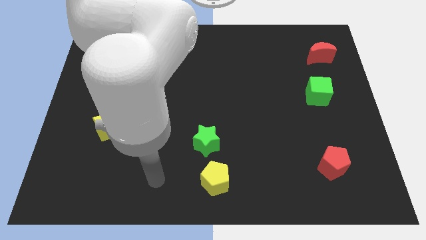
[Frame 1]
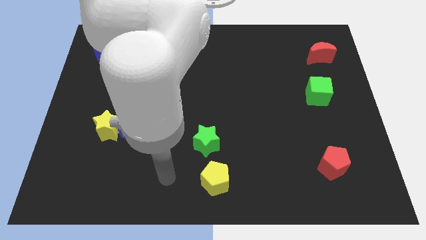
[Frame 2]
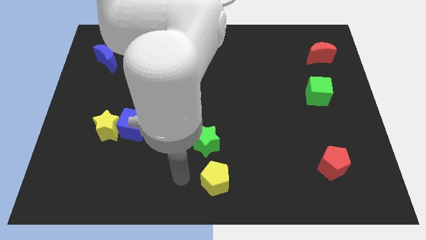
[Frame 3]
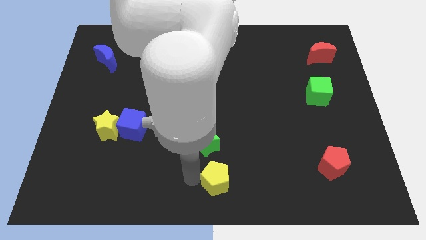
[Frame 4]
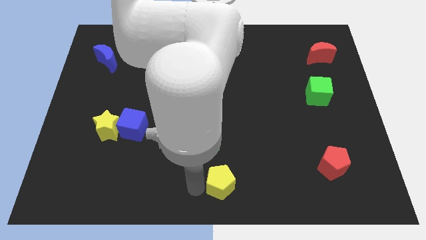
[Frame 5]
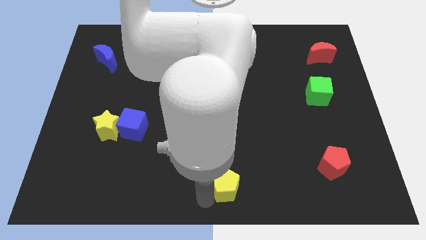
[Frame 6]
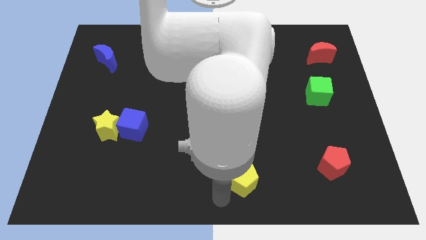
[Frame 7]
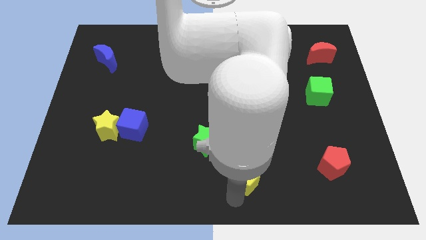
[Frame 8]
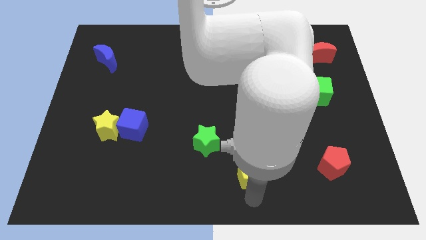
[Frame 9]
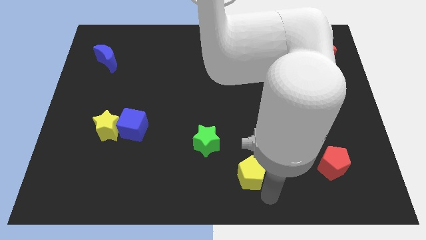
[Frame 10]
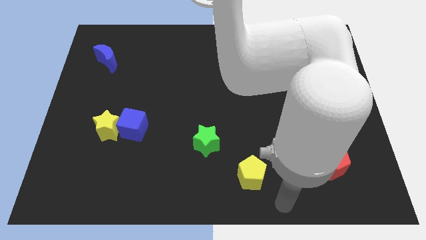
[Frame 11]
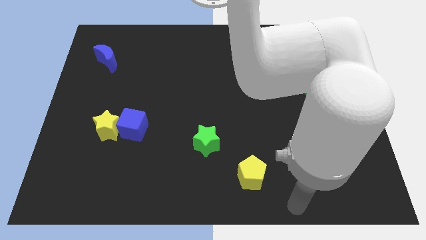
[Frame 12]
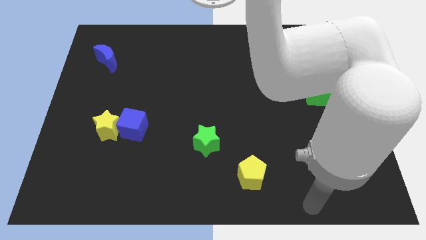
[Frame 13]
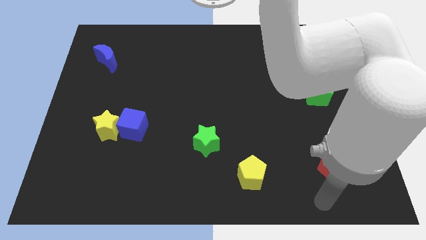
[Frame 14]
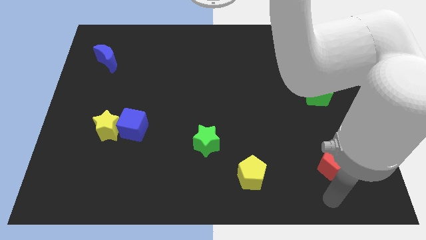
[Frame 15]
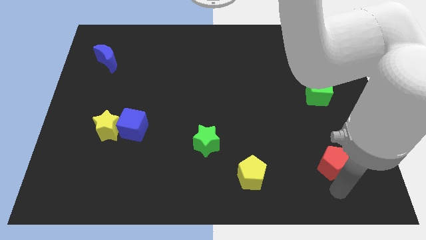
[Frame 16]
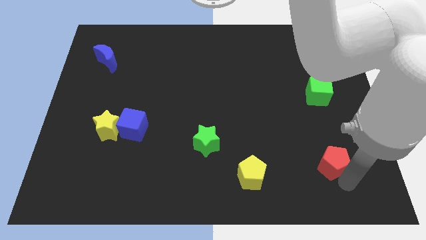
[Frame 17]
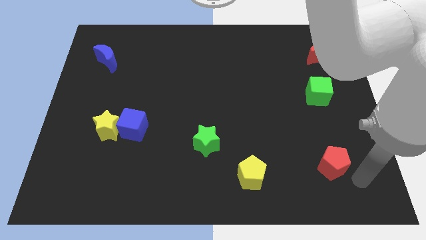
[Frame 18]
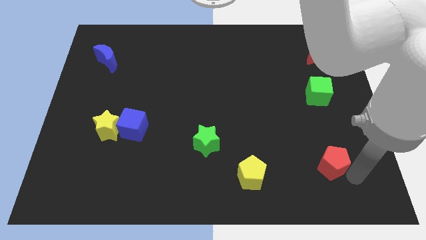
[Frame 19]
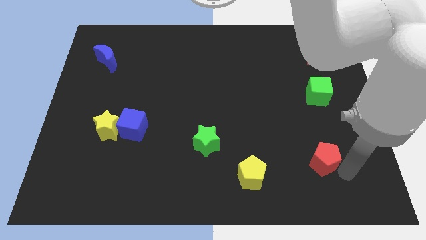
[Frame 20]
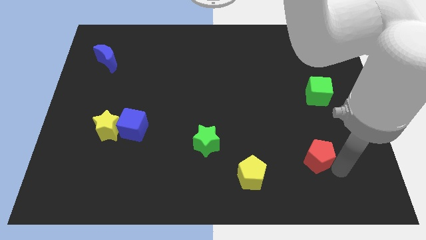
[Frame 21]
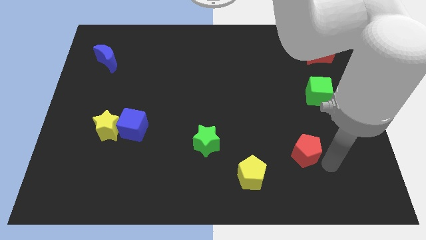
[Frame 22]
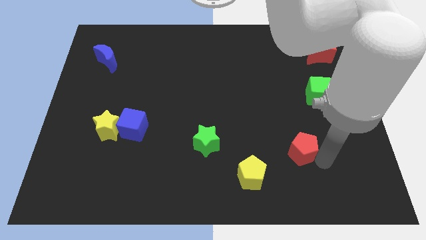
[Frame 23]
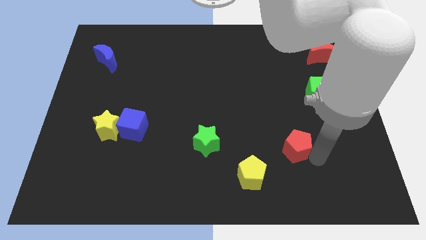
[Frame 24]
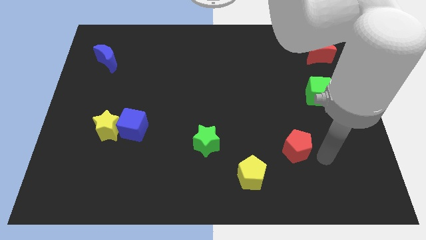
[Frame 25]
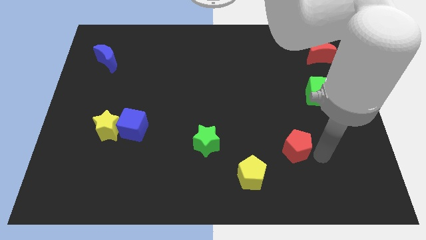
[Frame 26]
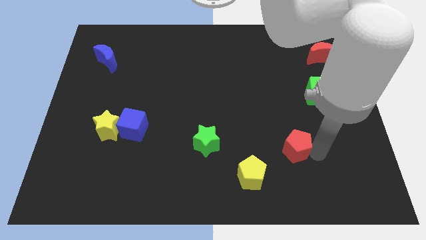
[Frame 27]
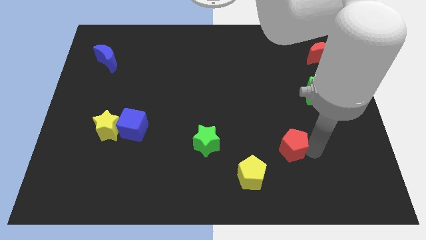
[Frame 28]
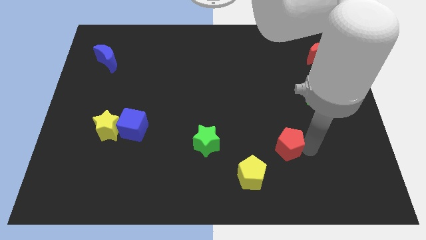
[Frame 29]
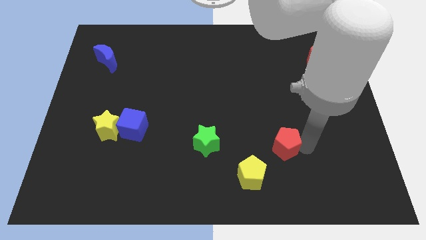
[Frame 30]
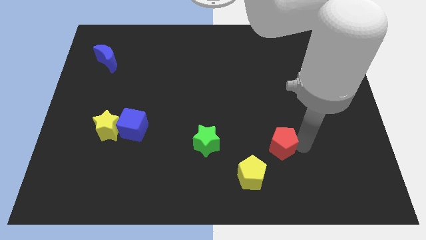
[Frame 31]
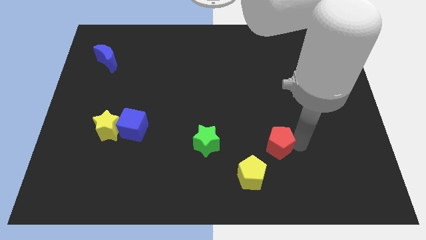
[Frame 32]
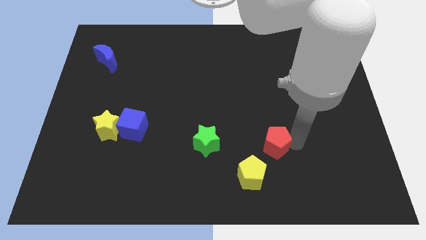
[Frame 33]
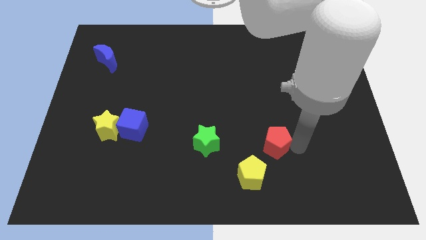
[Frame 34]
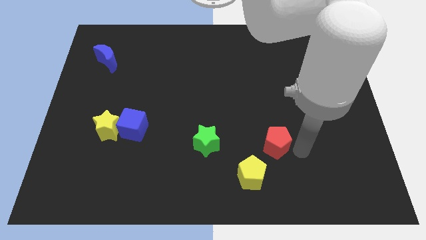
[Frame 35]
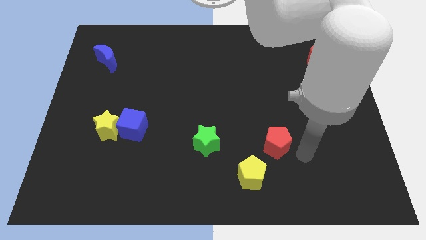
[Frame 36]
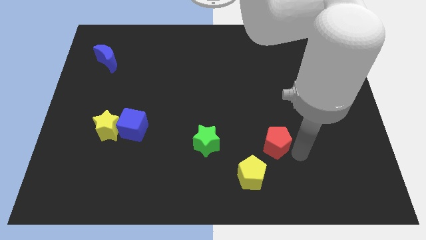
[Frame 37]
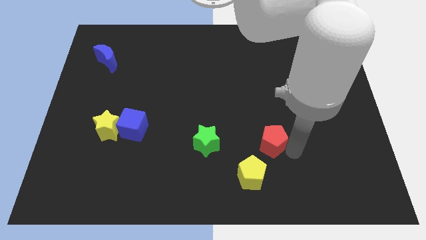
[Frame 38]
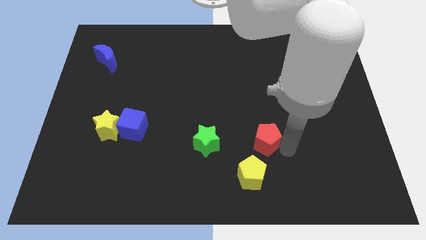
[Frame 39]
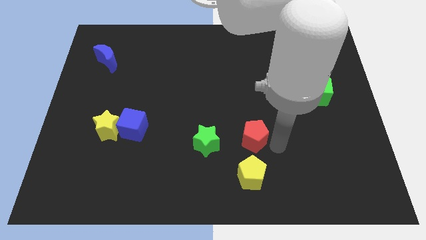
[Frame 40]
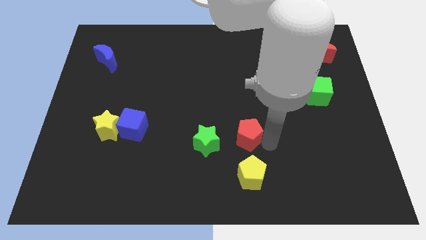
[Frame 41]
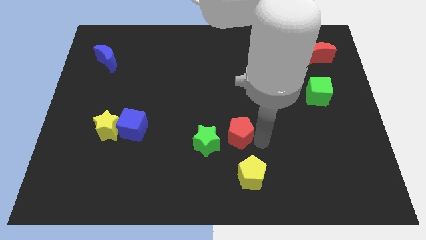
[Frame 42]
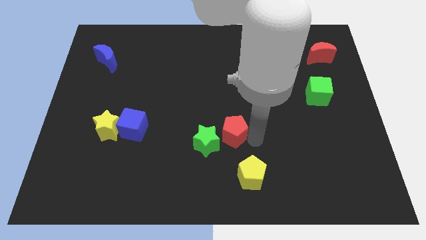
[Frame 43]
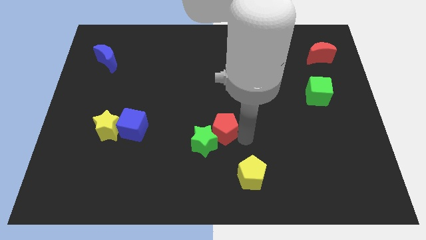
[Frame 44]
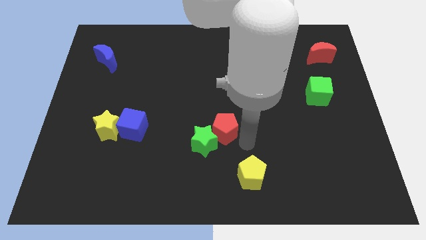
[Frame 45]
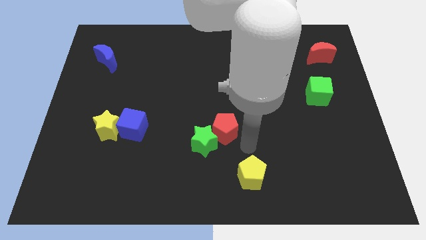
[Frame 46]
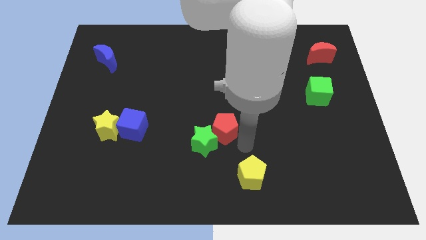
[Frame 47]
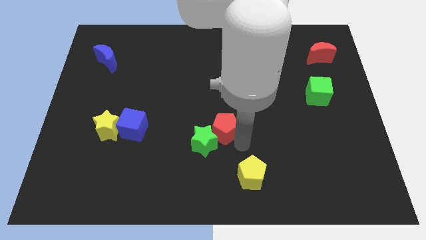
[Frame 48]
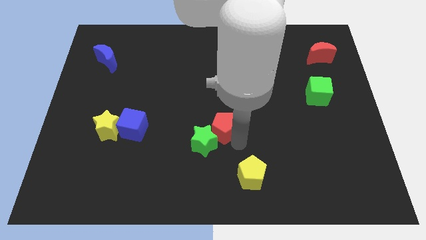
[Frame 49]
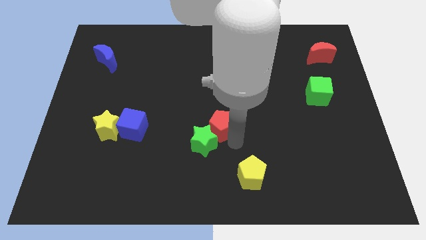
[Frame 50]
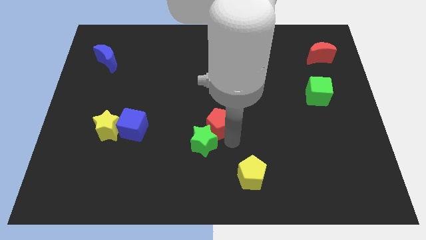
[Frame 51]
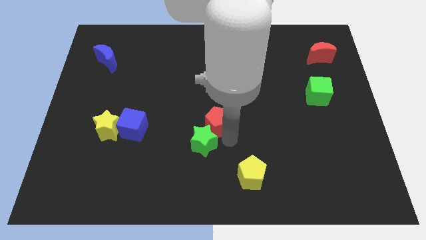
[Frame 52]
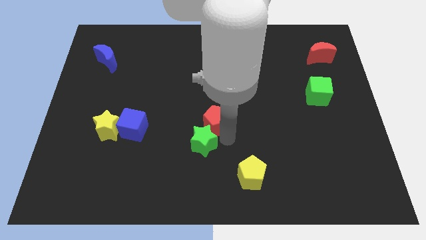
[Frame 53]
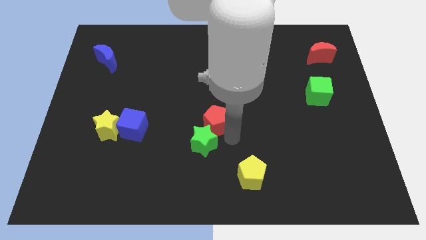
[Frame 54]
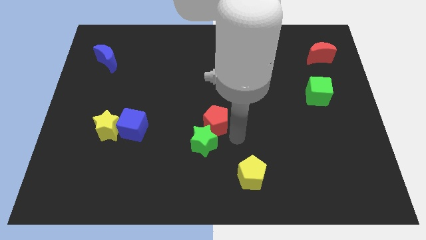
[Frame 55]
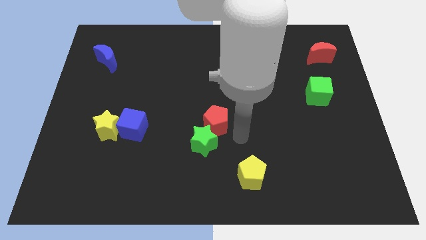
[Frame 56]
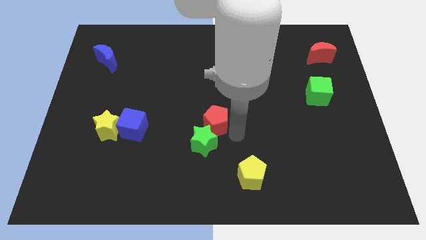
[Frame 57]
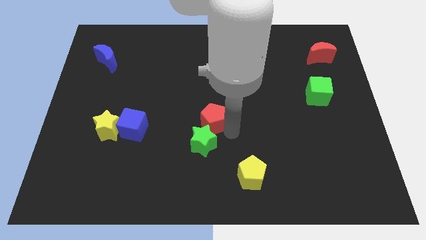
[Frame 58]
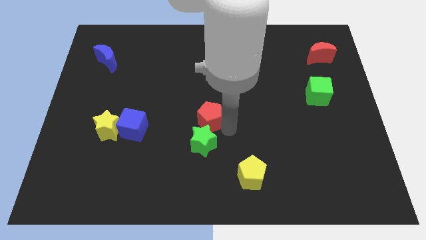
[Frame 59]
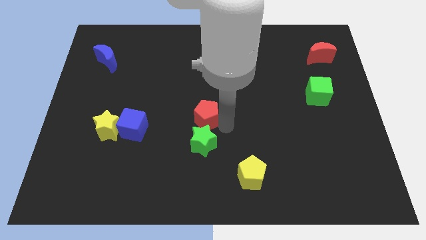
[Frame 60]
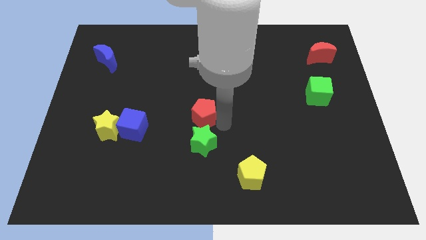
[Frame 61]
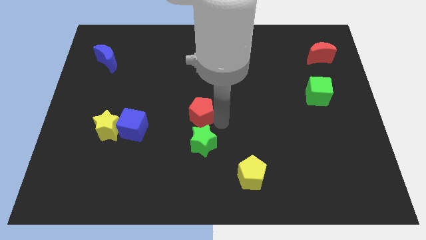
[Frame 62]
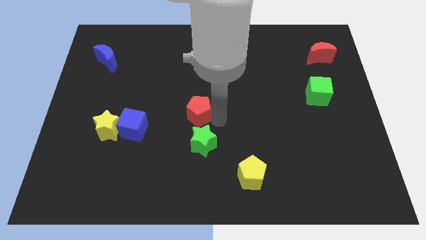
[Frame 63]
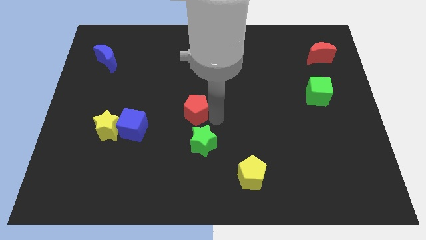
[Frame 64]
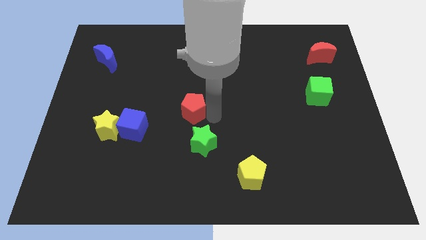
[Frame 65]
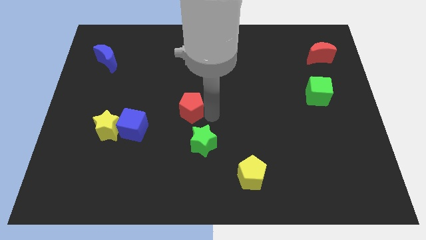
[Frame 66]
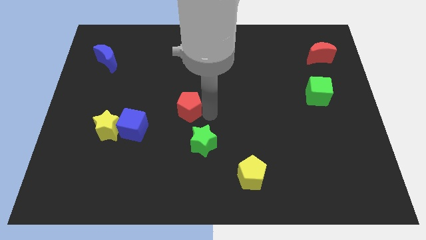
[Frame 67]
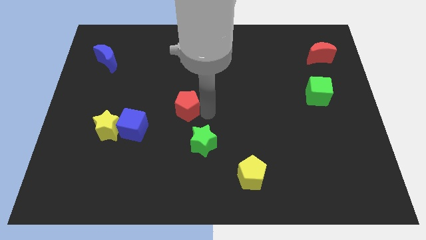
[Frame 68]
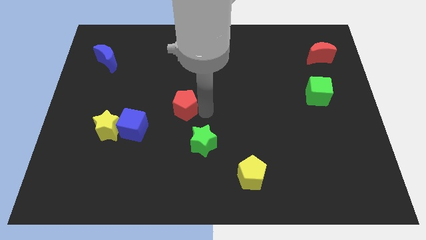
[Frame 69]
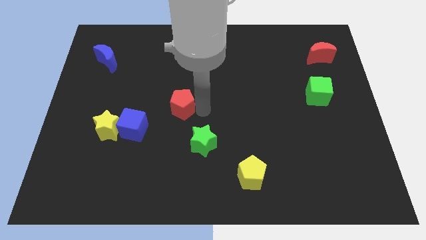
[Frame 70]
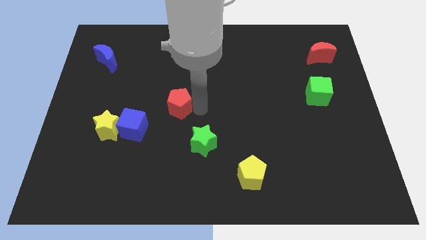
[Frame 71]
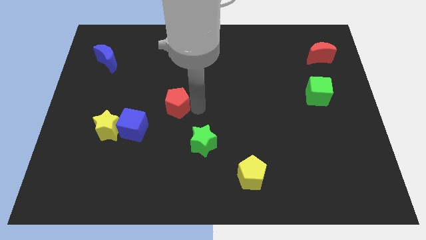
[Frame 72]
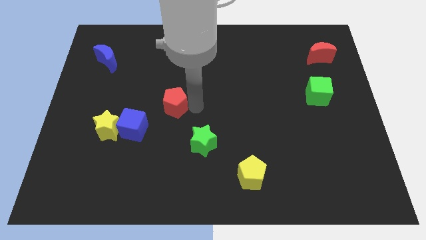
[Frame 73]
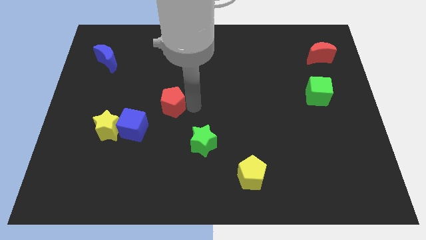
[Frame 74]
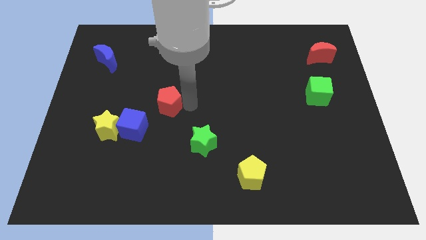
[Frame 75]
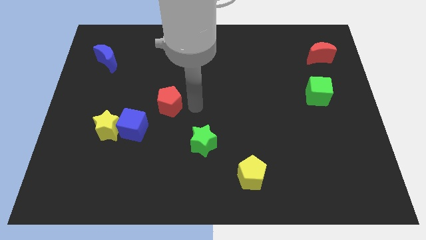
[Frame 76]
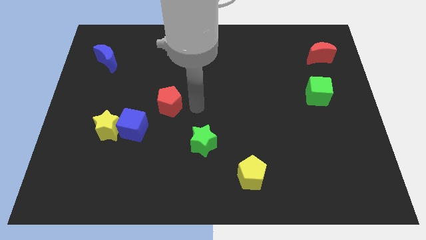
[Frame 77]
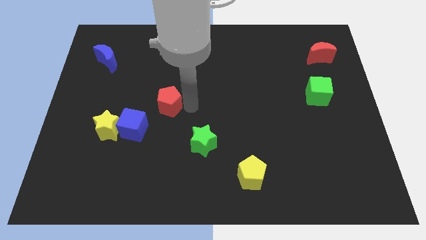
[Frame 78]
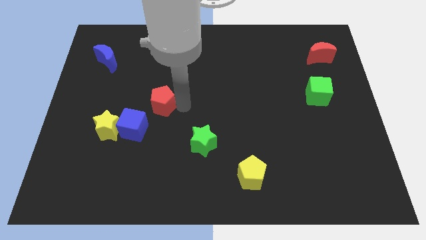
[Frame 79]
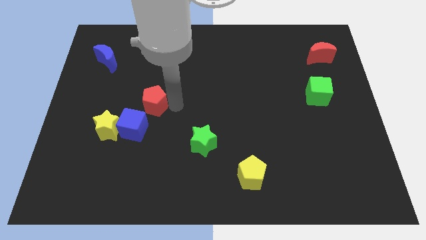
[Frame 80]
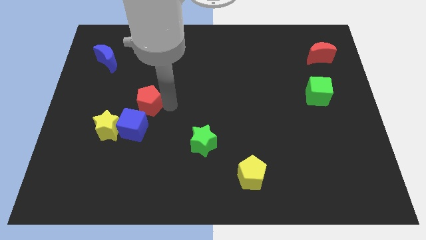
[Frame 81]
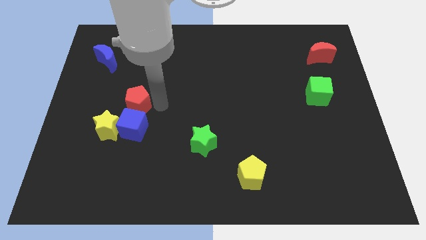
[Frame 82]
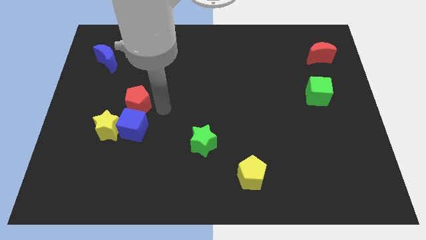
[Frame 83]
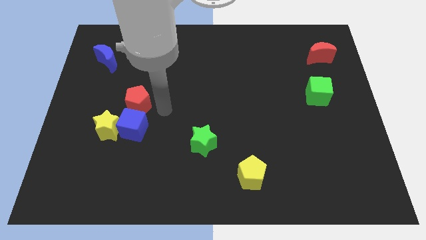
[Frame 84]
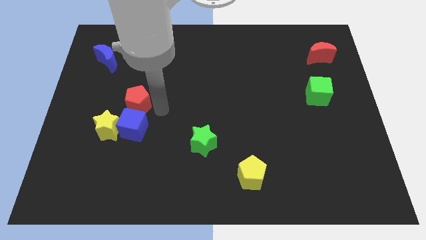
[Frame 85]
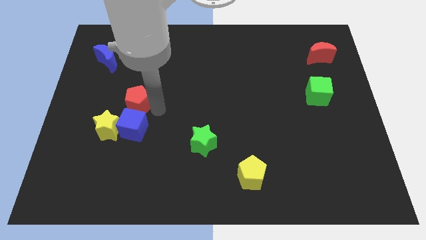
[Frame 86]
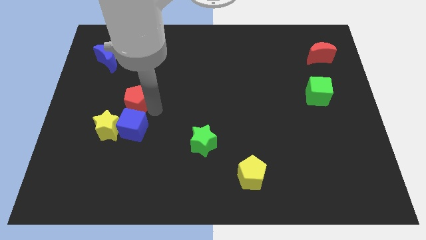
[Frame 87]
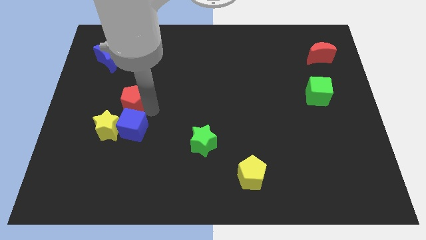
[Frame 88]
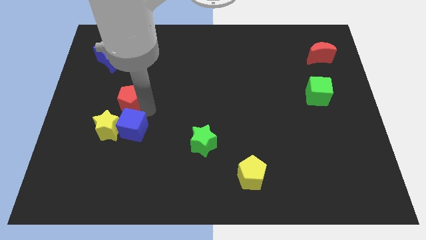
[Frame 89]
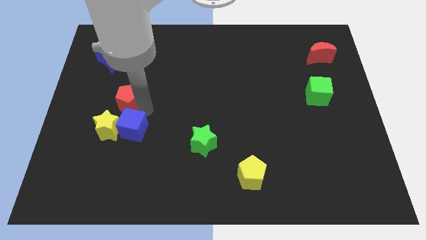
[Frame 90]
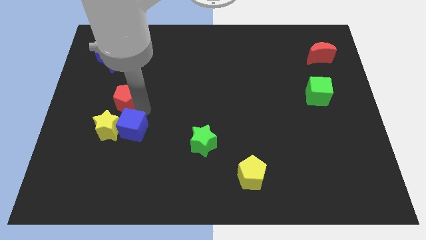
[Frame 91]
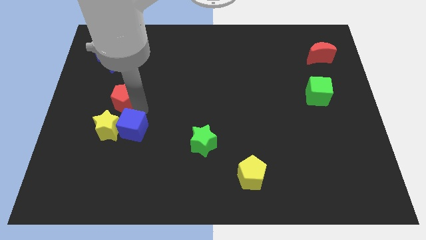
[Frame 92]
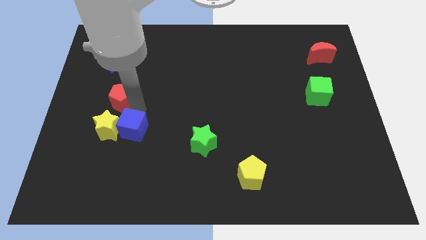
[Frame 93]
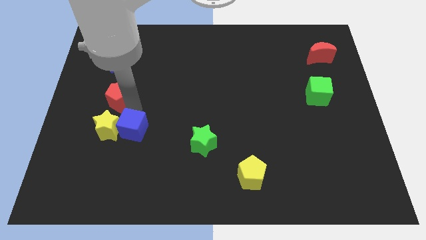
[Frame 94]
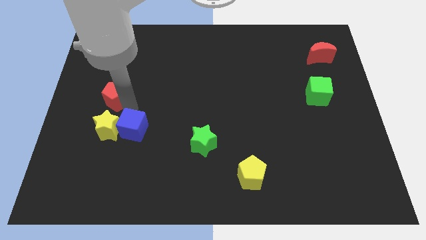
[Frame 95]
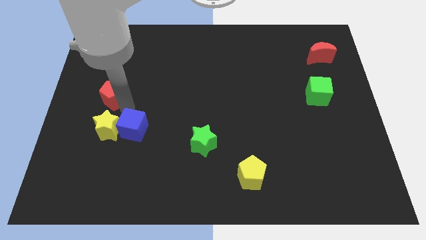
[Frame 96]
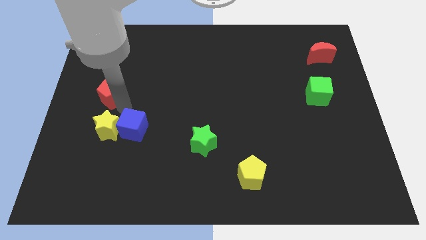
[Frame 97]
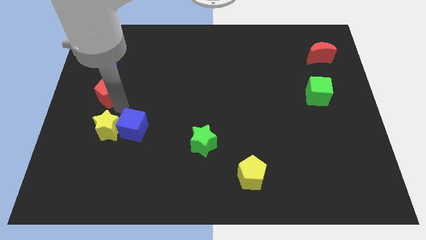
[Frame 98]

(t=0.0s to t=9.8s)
put the red pentagon to the center left
